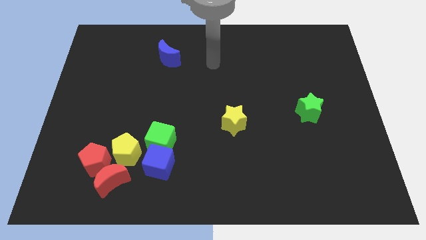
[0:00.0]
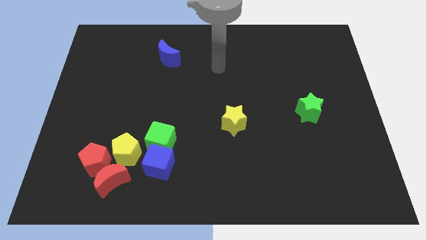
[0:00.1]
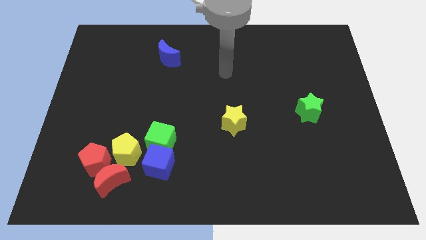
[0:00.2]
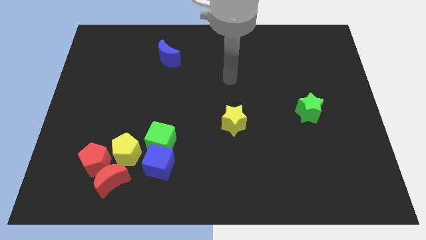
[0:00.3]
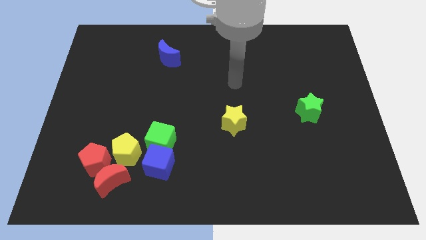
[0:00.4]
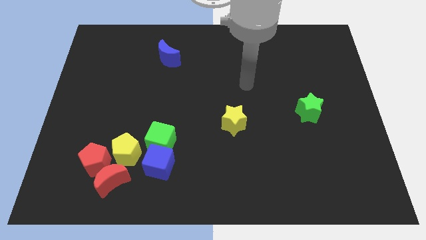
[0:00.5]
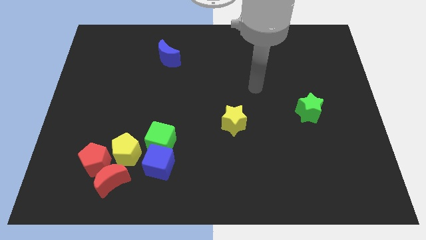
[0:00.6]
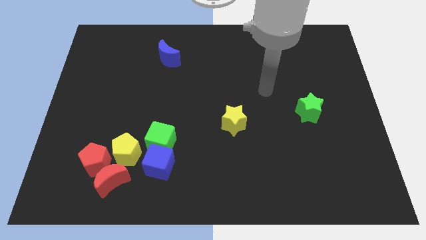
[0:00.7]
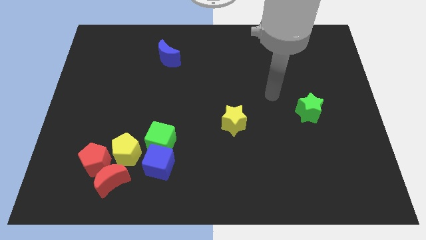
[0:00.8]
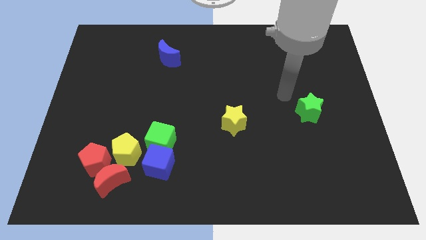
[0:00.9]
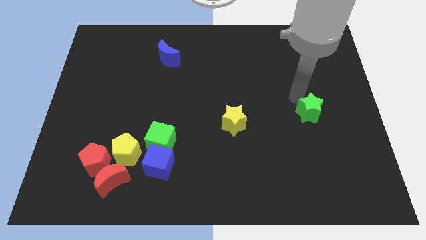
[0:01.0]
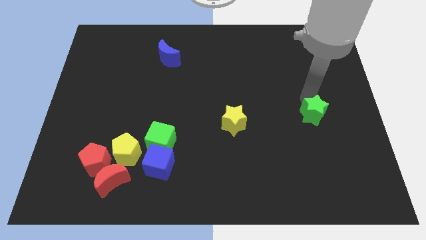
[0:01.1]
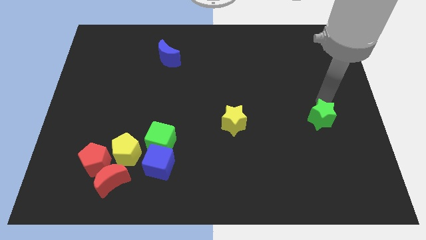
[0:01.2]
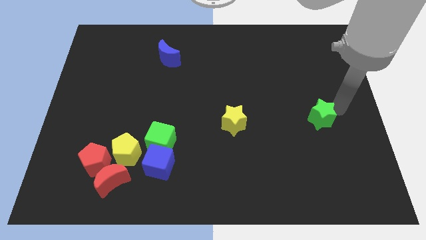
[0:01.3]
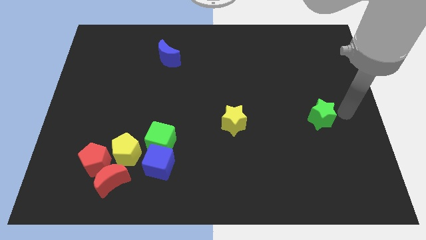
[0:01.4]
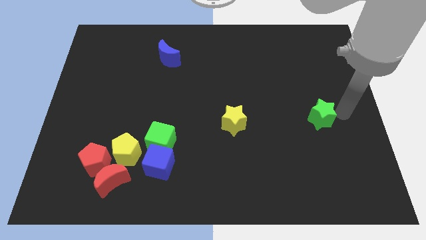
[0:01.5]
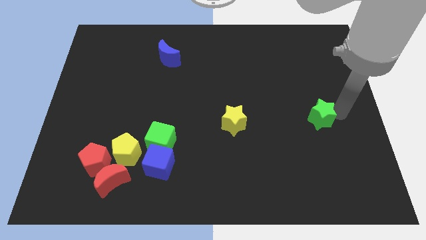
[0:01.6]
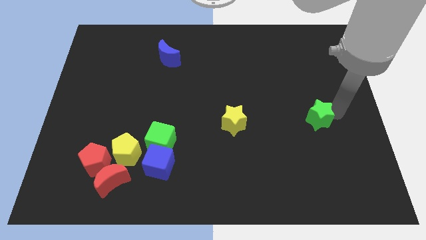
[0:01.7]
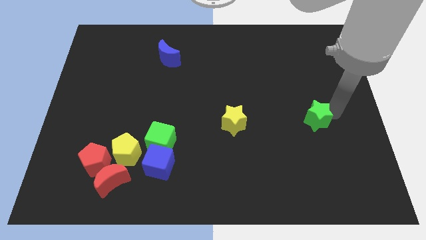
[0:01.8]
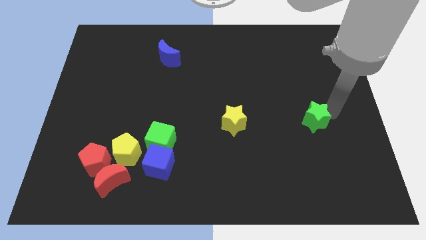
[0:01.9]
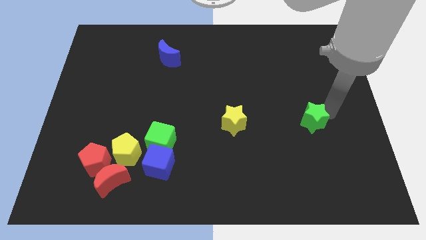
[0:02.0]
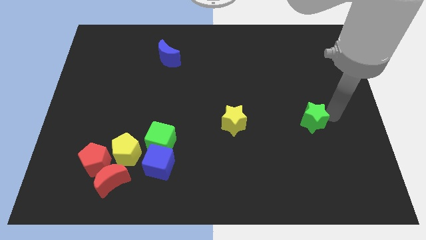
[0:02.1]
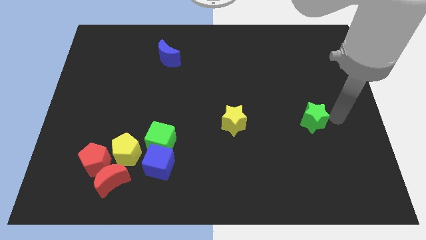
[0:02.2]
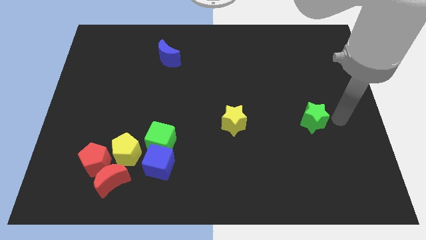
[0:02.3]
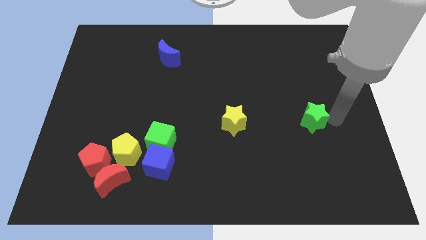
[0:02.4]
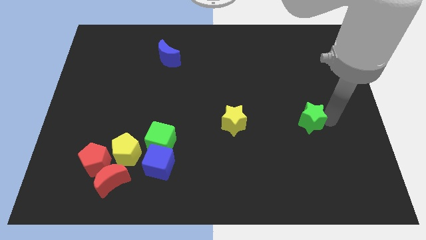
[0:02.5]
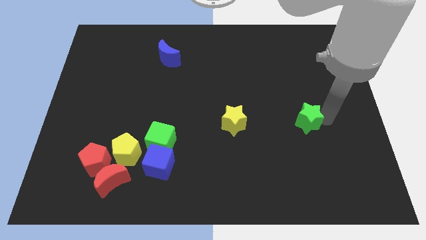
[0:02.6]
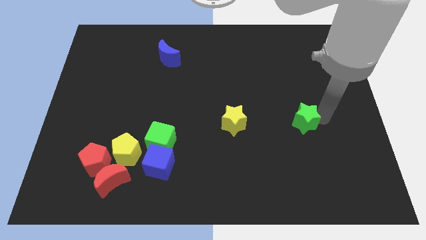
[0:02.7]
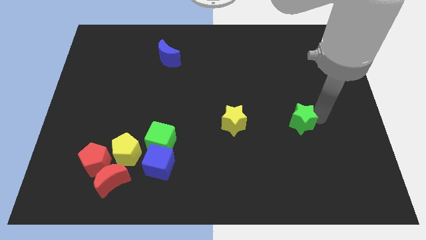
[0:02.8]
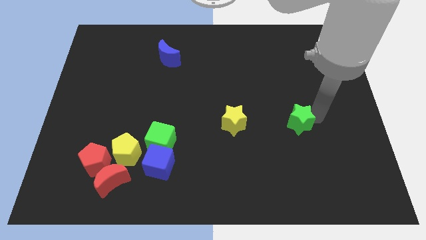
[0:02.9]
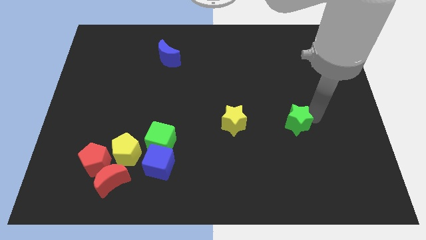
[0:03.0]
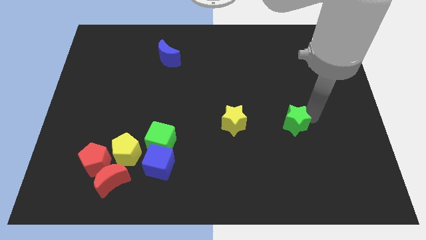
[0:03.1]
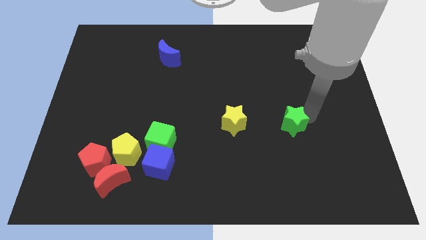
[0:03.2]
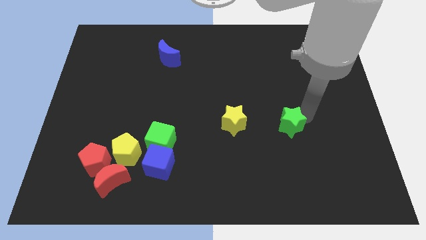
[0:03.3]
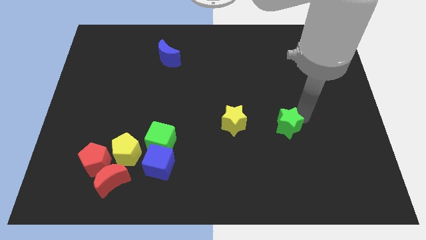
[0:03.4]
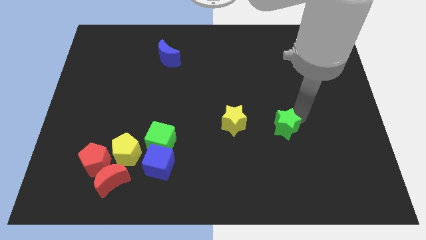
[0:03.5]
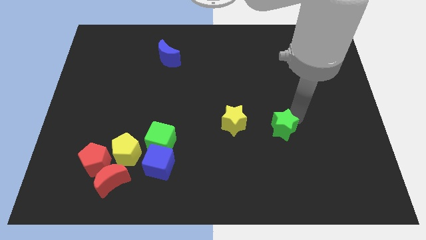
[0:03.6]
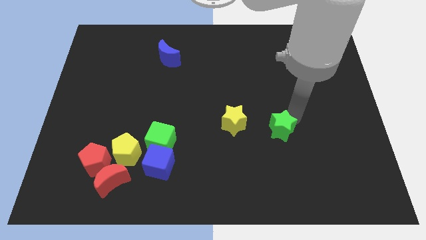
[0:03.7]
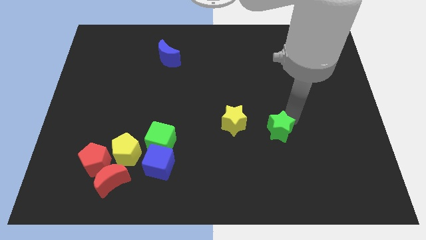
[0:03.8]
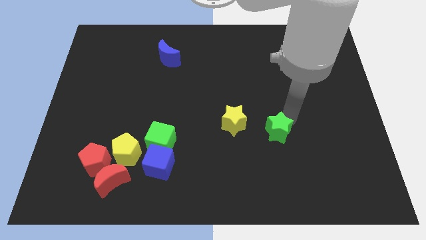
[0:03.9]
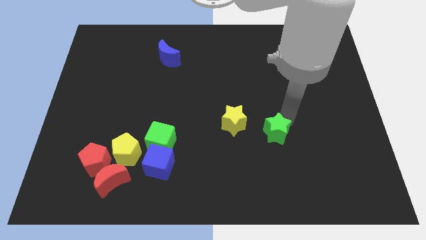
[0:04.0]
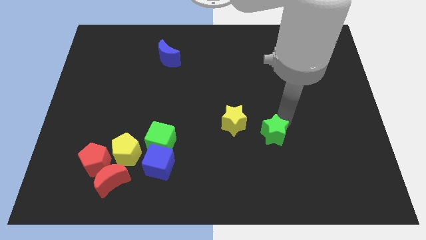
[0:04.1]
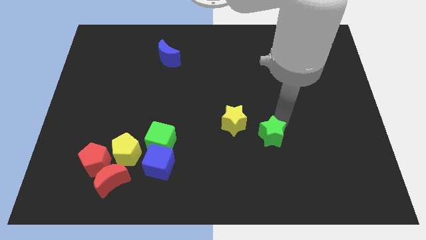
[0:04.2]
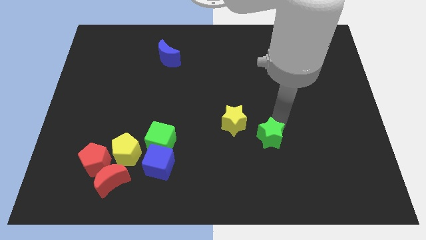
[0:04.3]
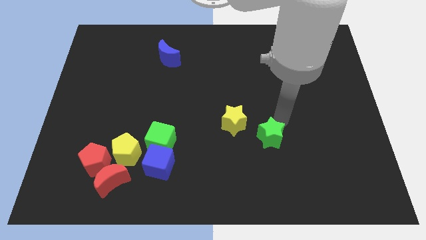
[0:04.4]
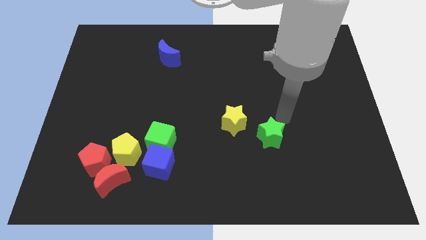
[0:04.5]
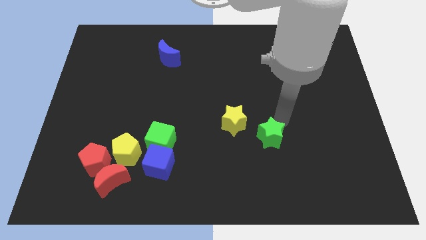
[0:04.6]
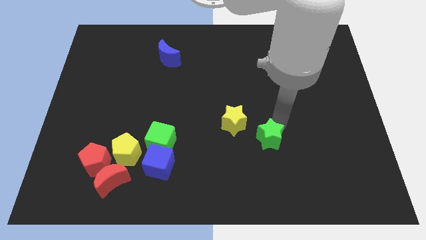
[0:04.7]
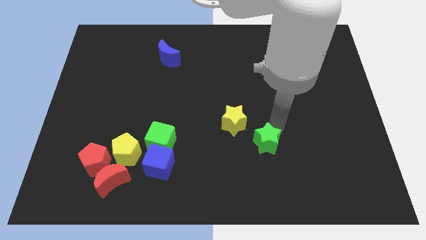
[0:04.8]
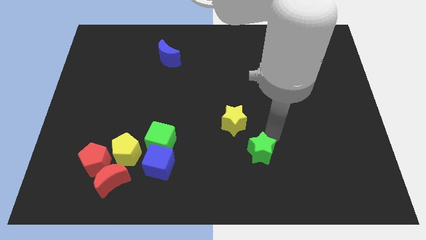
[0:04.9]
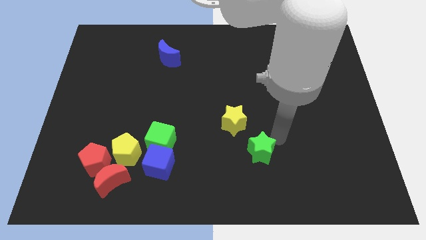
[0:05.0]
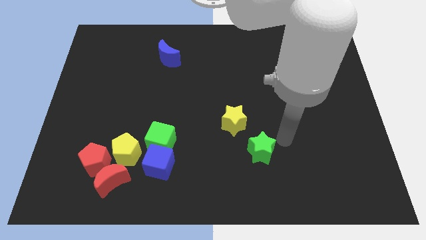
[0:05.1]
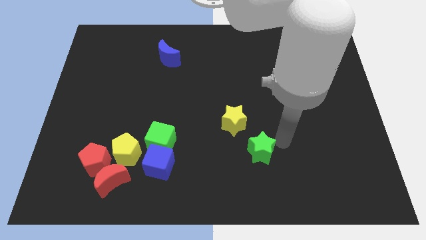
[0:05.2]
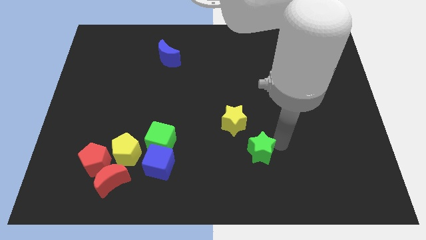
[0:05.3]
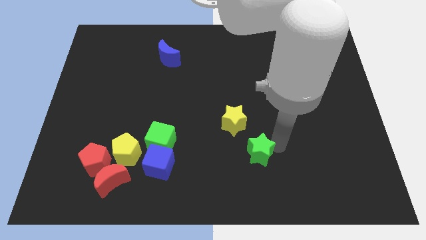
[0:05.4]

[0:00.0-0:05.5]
slide the green star below the yellow star

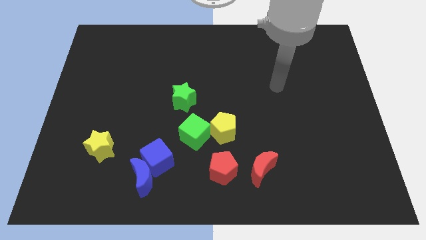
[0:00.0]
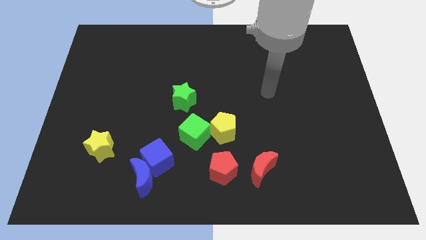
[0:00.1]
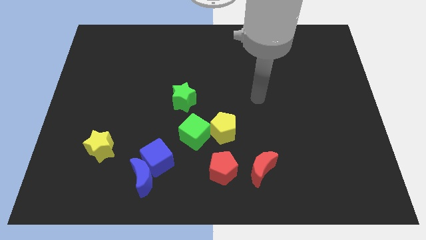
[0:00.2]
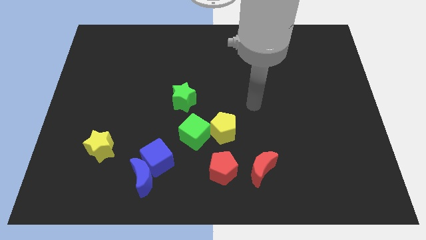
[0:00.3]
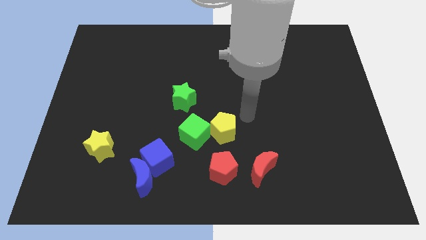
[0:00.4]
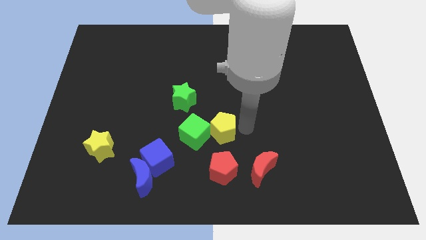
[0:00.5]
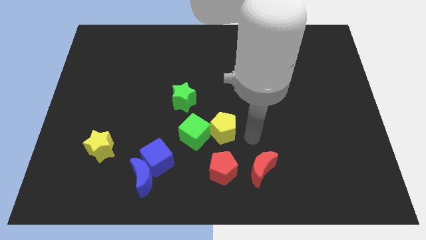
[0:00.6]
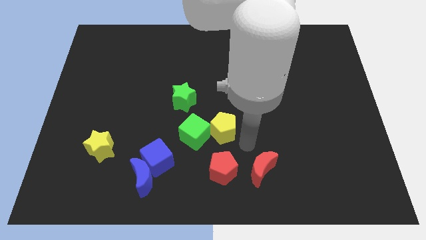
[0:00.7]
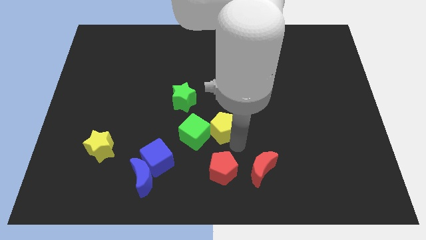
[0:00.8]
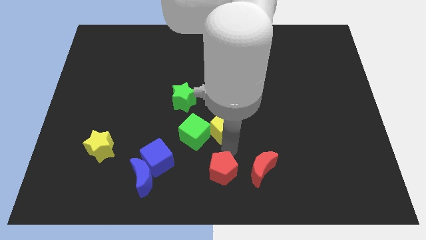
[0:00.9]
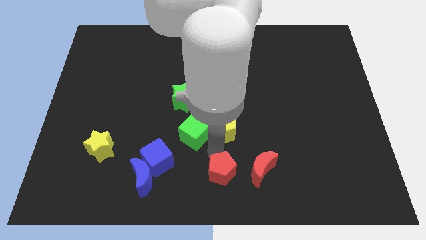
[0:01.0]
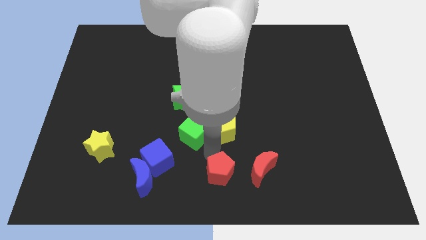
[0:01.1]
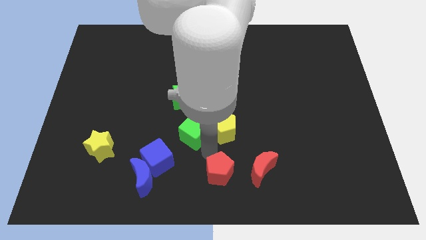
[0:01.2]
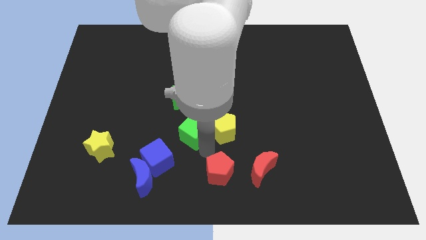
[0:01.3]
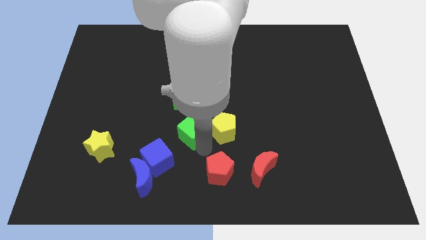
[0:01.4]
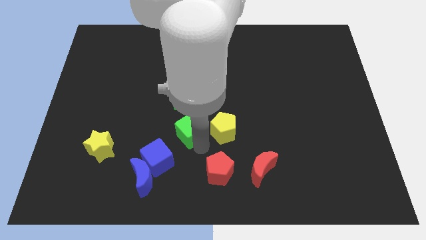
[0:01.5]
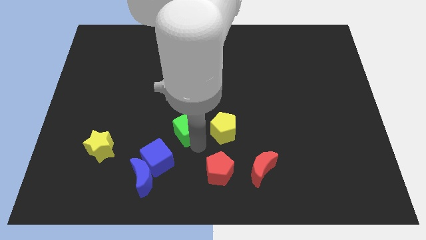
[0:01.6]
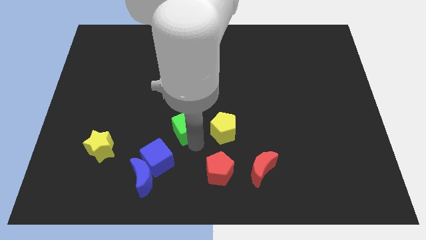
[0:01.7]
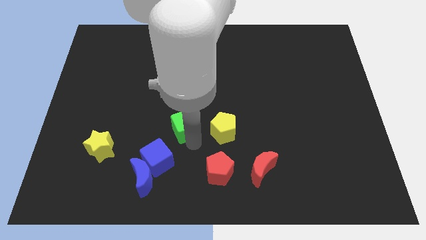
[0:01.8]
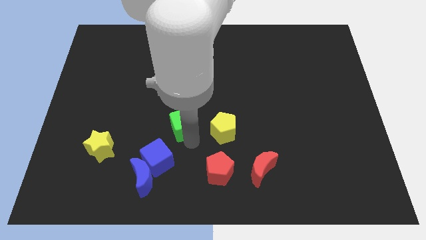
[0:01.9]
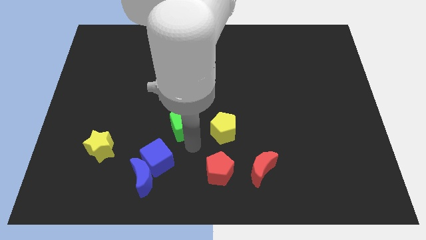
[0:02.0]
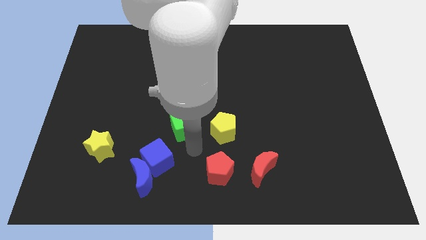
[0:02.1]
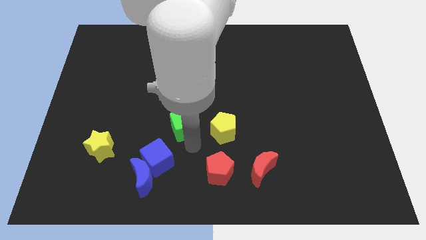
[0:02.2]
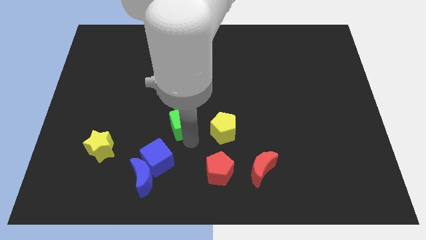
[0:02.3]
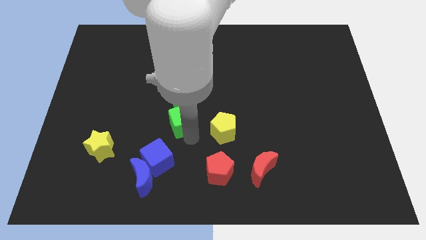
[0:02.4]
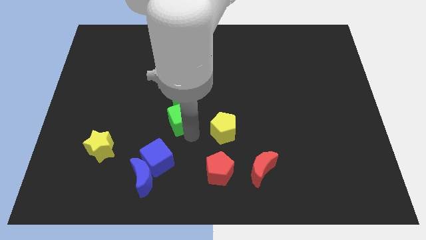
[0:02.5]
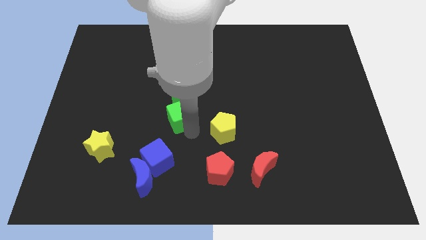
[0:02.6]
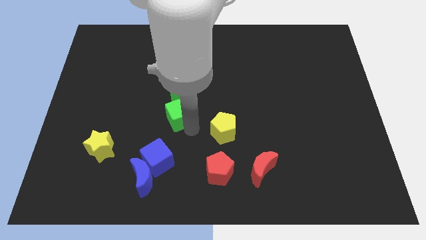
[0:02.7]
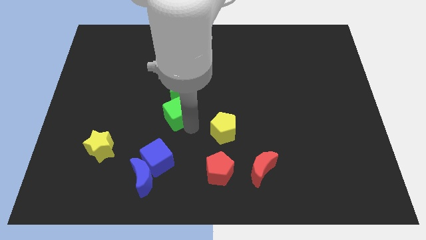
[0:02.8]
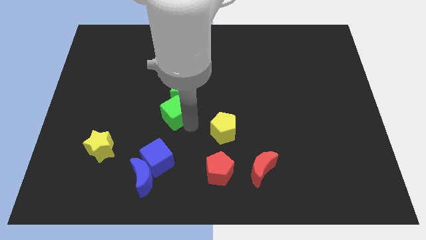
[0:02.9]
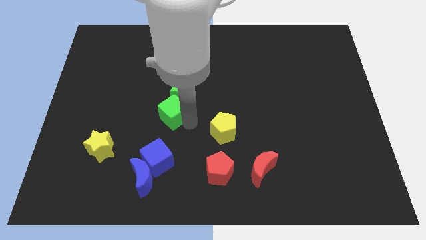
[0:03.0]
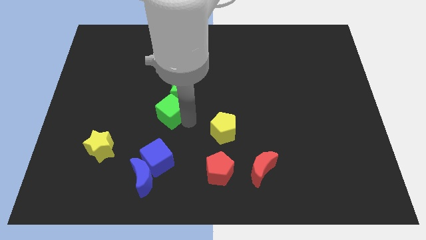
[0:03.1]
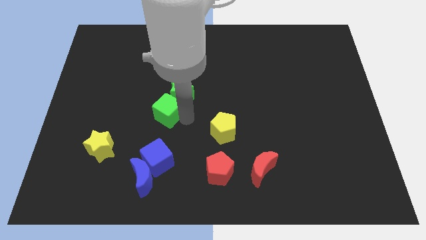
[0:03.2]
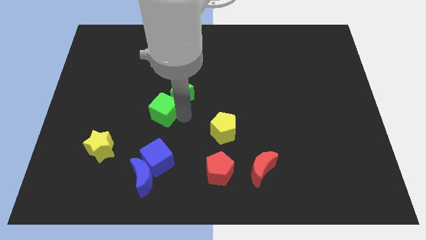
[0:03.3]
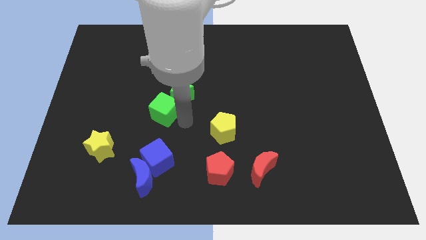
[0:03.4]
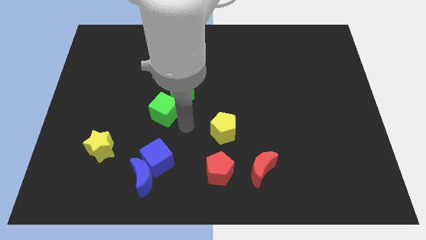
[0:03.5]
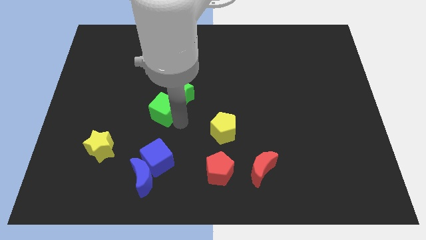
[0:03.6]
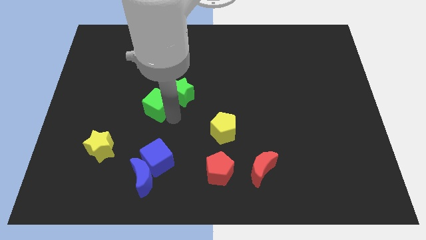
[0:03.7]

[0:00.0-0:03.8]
push the green cube to the left side of the green star
